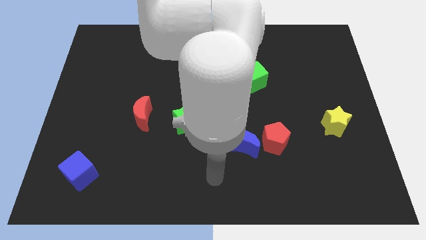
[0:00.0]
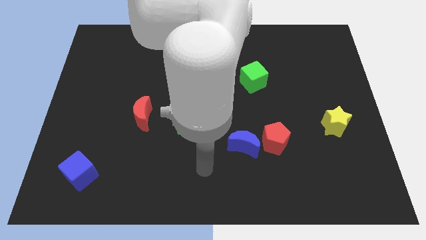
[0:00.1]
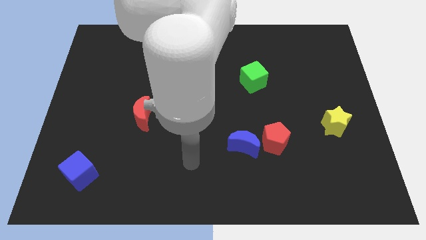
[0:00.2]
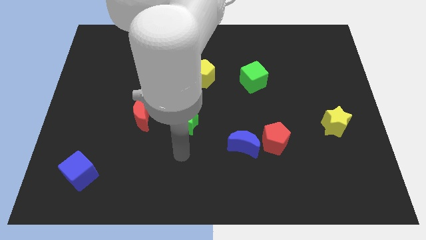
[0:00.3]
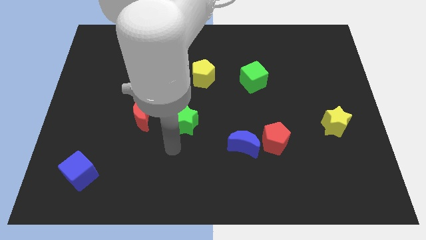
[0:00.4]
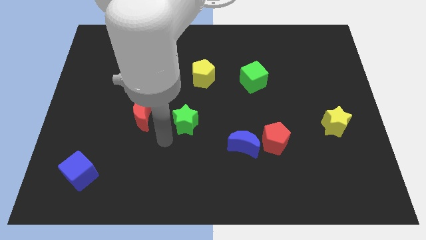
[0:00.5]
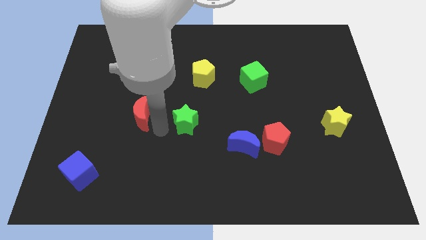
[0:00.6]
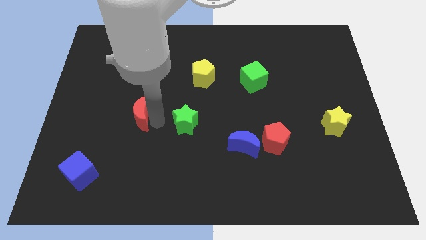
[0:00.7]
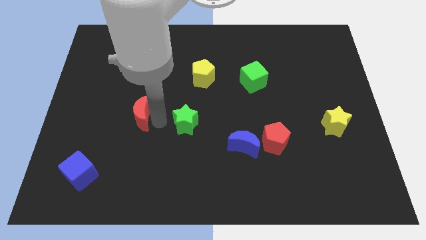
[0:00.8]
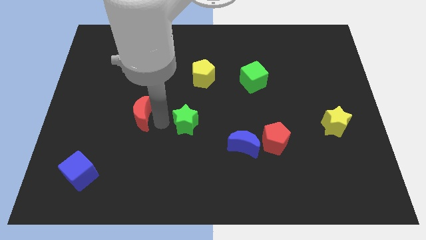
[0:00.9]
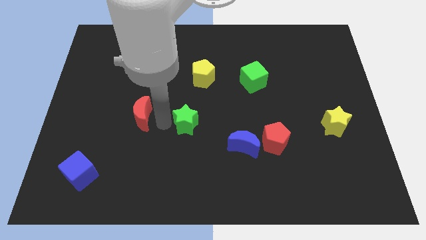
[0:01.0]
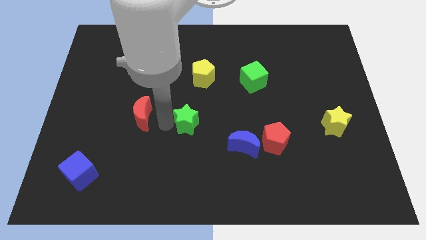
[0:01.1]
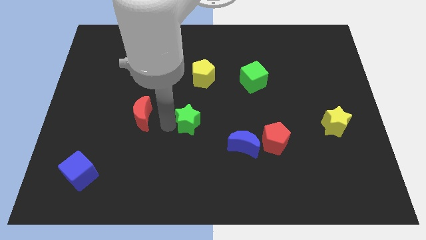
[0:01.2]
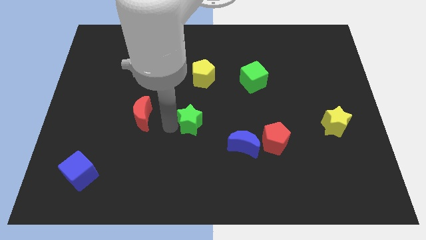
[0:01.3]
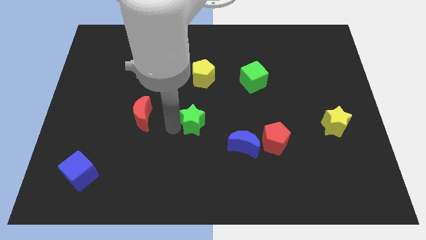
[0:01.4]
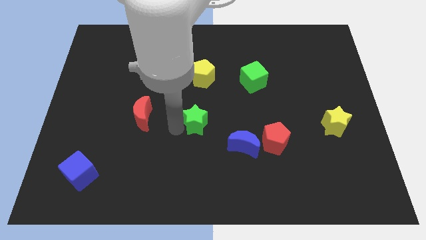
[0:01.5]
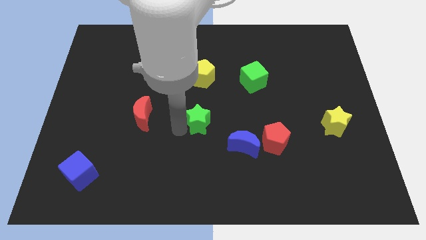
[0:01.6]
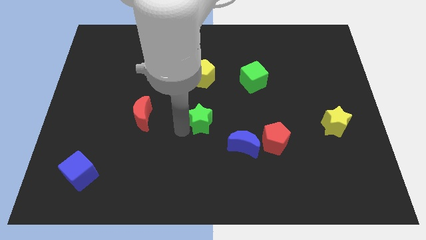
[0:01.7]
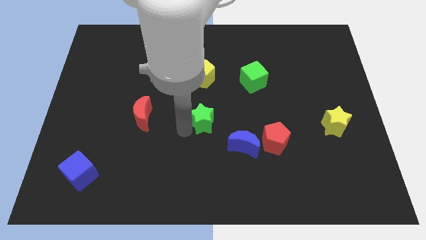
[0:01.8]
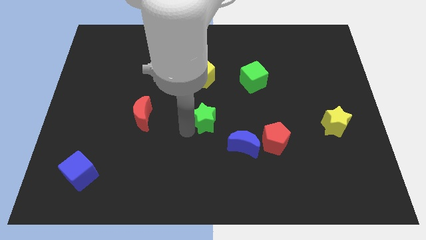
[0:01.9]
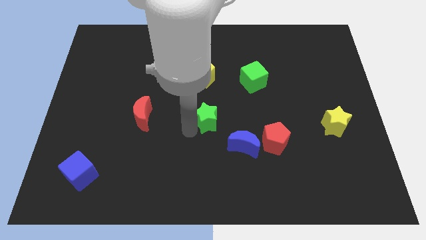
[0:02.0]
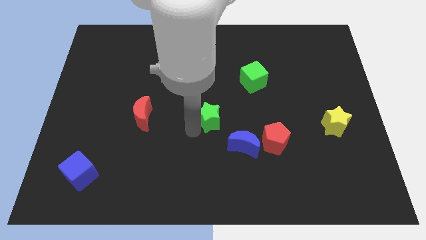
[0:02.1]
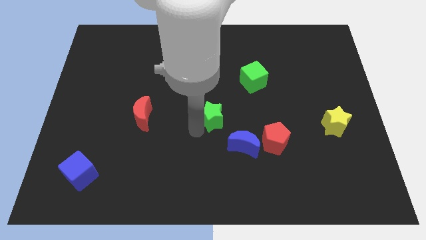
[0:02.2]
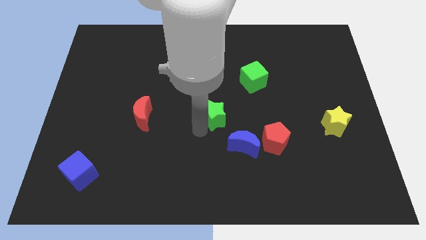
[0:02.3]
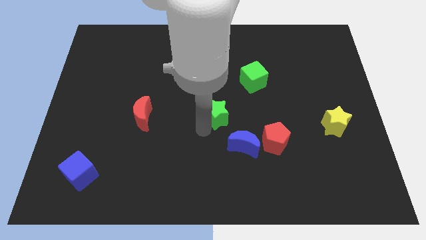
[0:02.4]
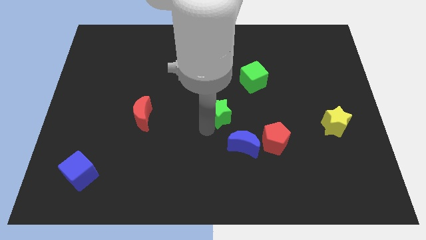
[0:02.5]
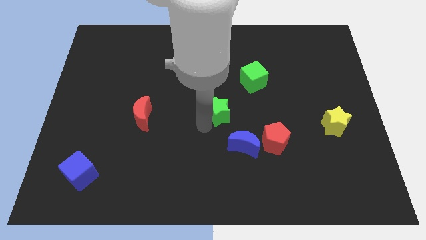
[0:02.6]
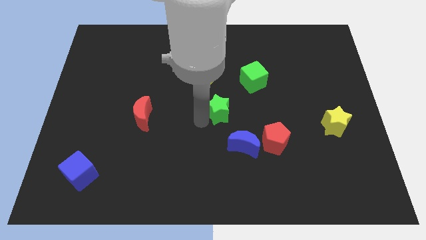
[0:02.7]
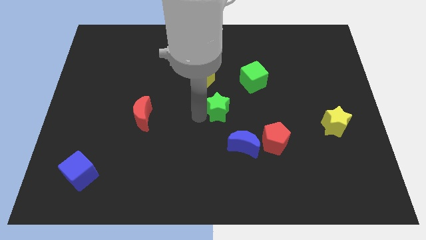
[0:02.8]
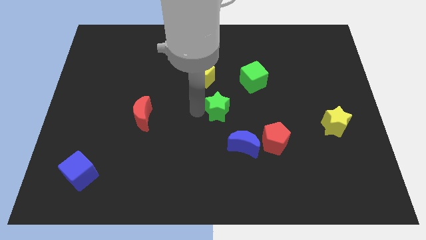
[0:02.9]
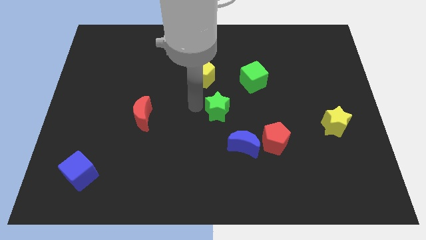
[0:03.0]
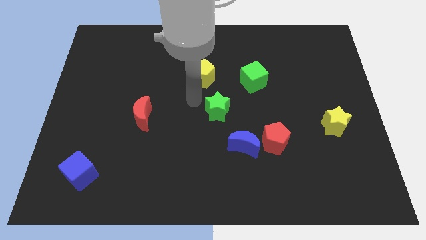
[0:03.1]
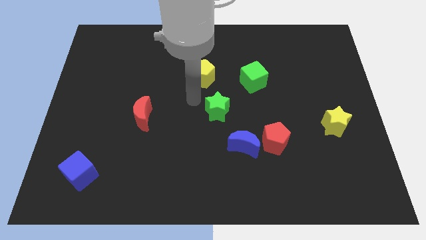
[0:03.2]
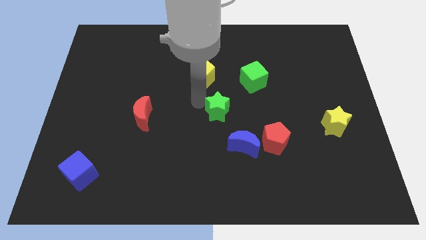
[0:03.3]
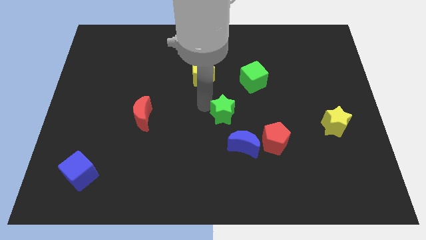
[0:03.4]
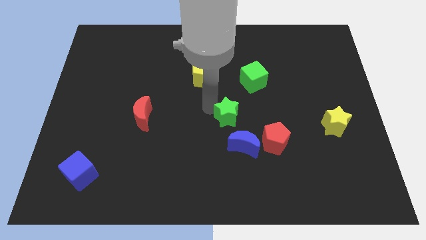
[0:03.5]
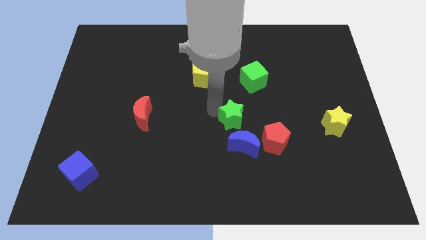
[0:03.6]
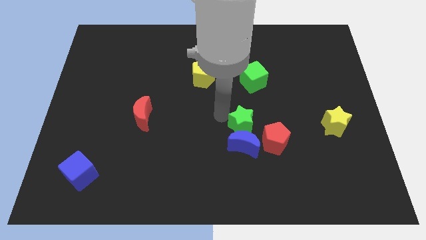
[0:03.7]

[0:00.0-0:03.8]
slide the green star to the top right side of the blue moon

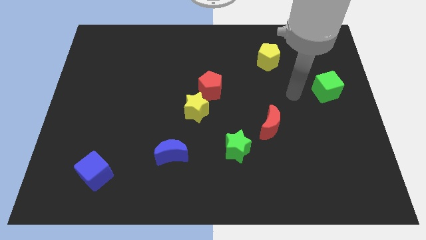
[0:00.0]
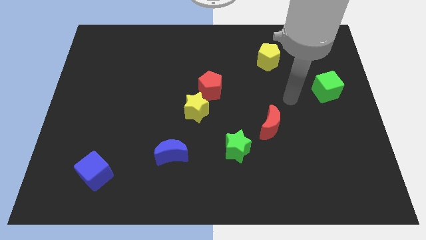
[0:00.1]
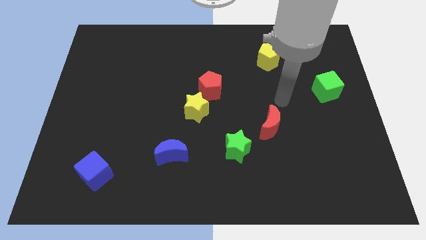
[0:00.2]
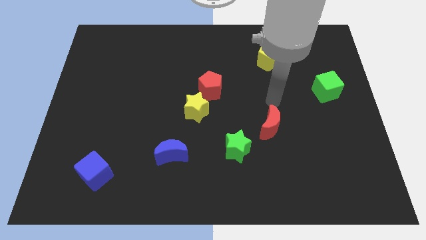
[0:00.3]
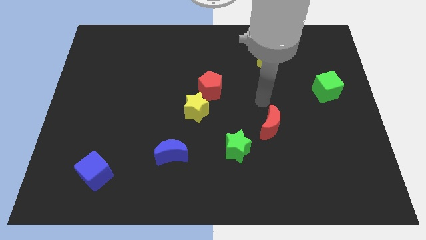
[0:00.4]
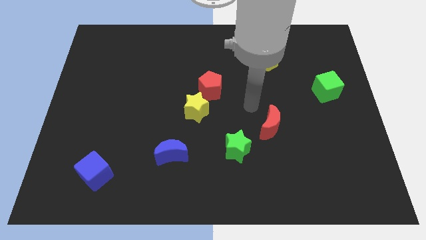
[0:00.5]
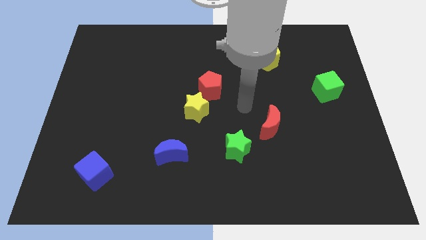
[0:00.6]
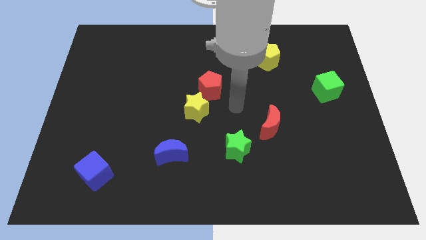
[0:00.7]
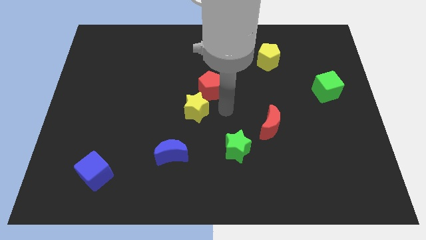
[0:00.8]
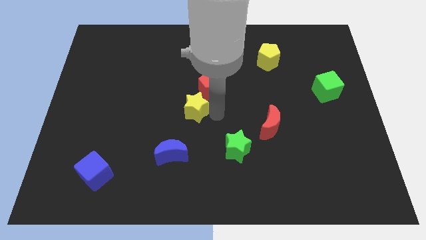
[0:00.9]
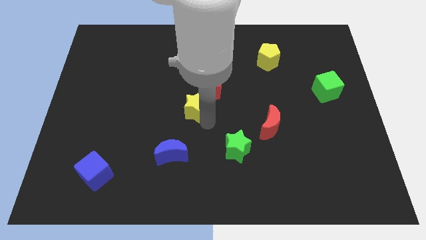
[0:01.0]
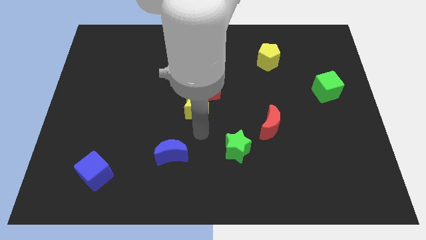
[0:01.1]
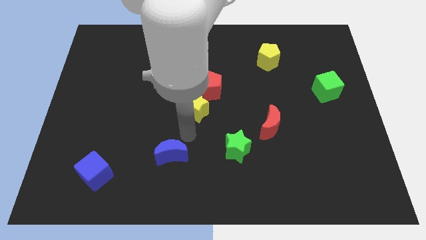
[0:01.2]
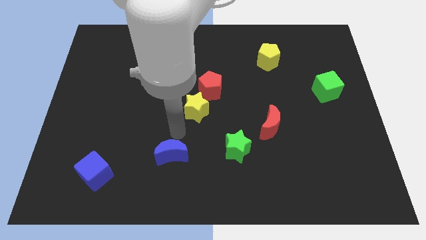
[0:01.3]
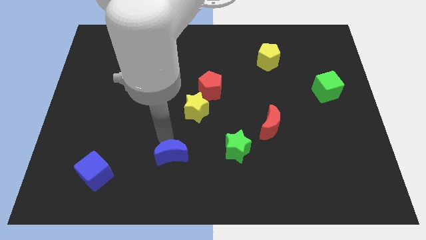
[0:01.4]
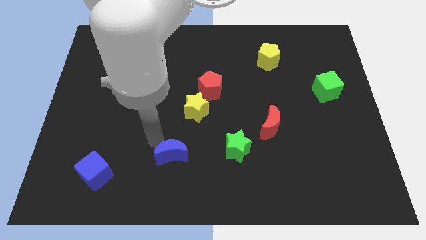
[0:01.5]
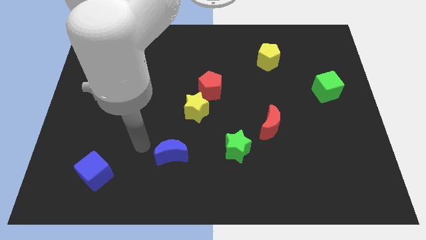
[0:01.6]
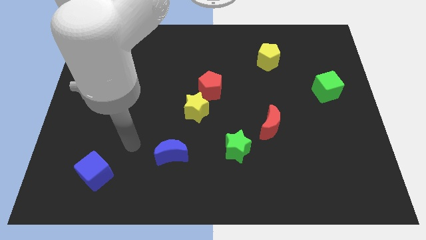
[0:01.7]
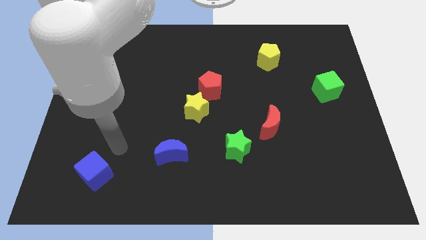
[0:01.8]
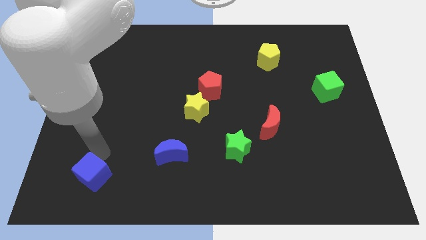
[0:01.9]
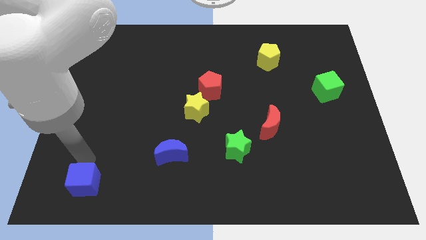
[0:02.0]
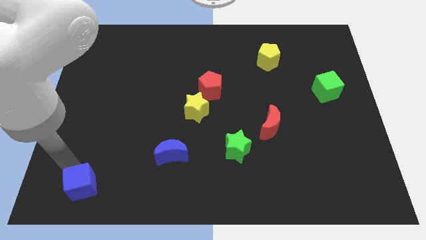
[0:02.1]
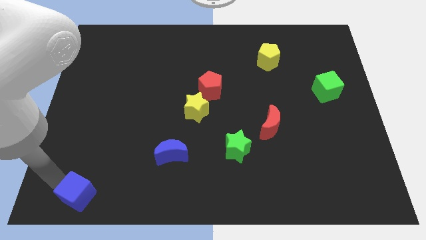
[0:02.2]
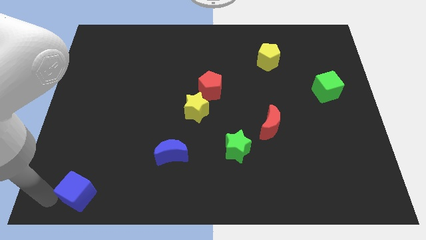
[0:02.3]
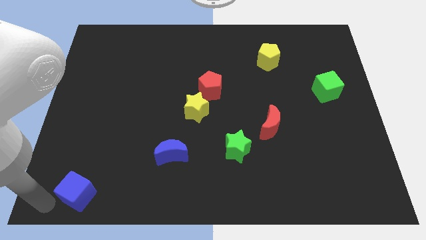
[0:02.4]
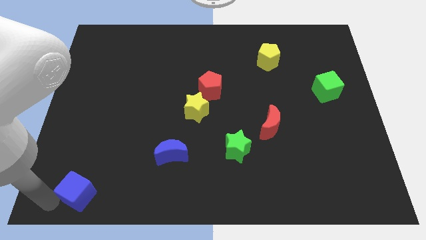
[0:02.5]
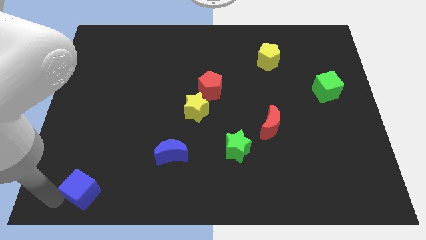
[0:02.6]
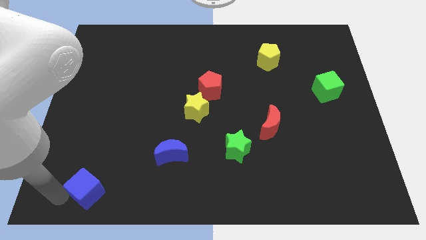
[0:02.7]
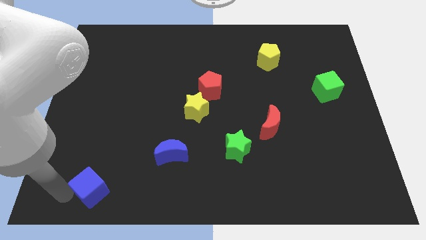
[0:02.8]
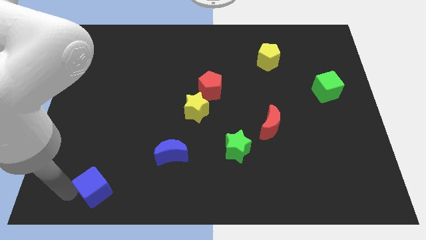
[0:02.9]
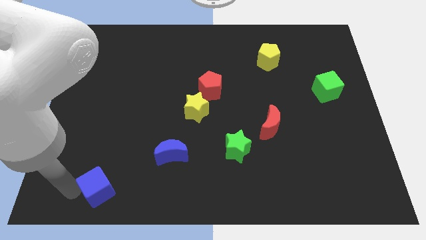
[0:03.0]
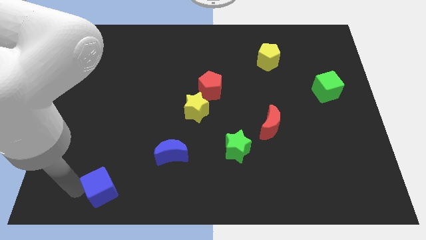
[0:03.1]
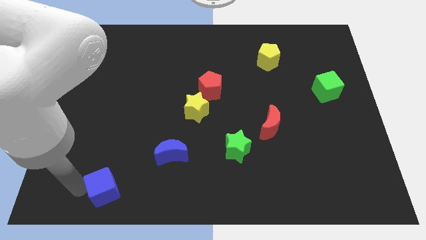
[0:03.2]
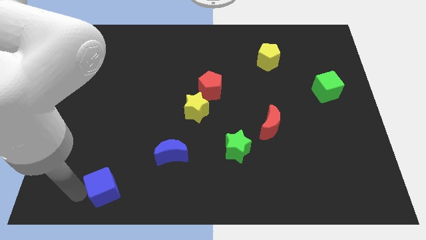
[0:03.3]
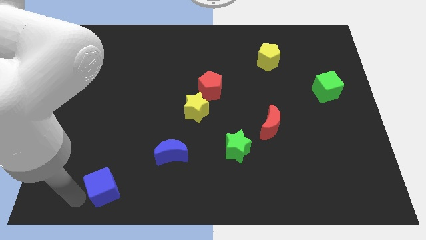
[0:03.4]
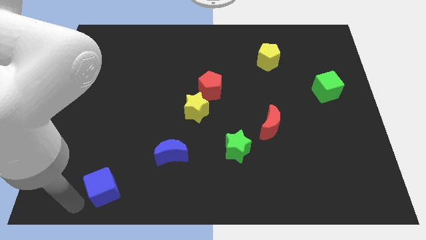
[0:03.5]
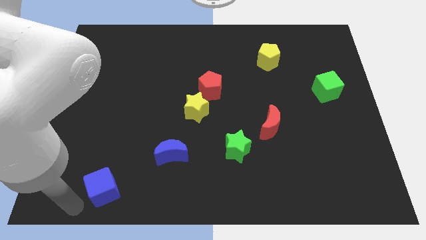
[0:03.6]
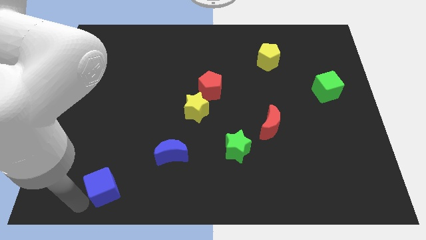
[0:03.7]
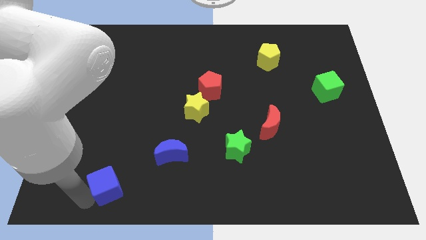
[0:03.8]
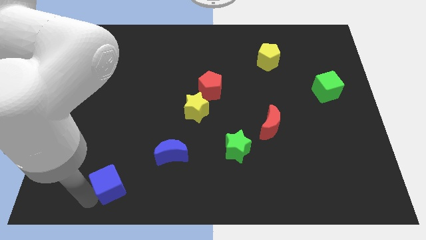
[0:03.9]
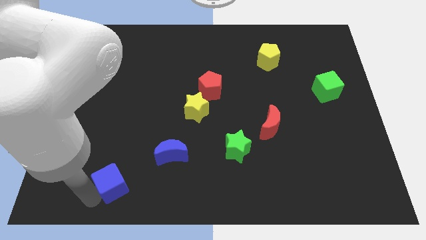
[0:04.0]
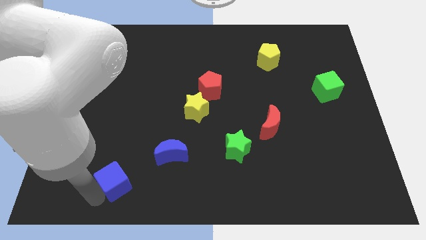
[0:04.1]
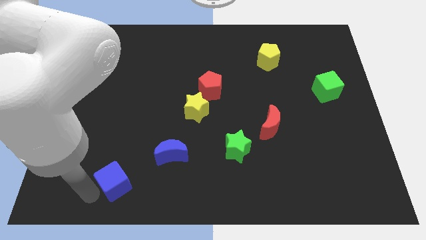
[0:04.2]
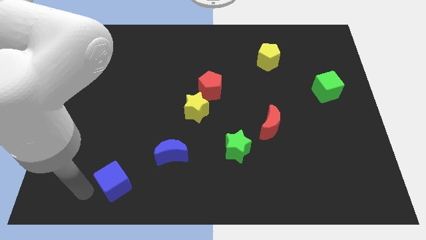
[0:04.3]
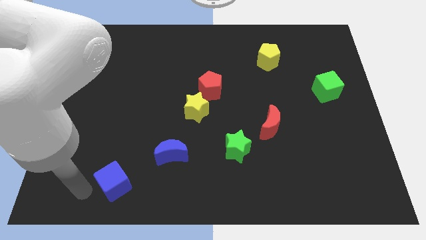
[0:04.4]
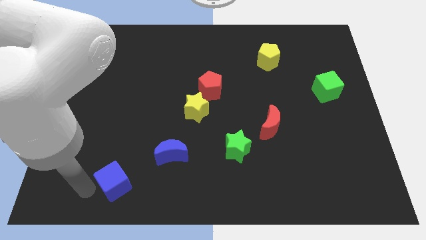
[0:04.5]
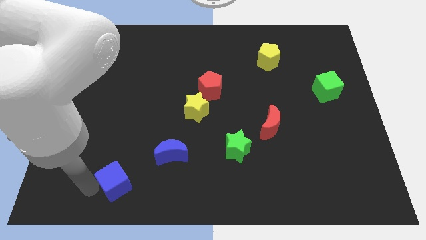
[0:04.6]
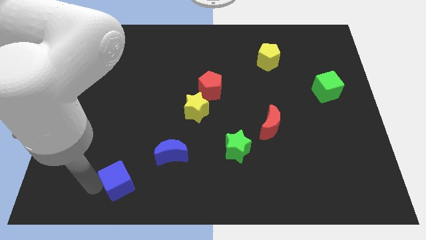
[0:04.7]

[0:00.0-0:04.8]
push the blue cube to the bottom left of the blue moon
